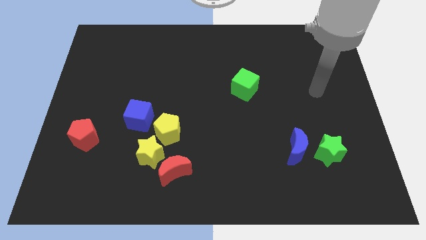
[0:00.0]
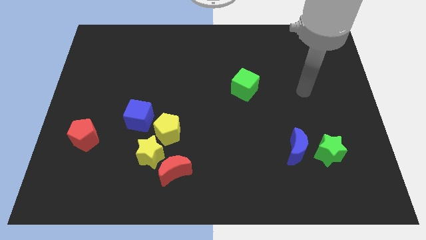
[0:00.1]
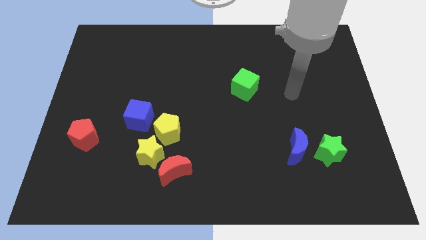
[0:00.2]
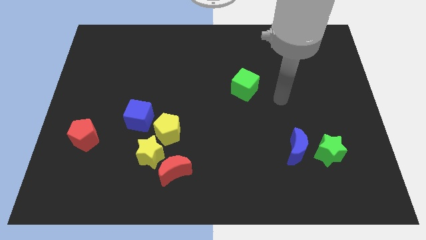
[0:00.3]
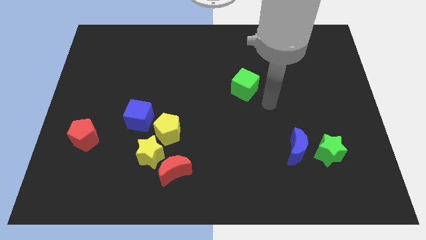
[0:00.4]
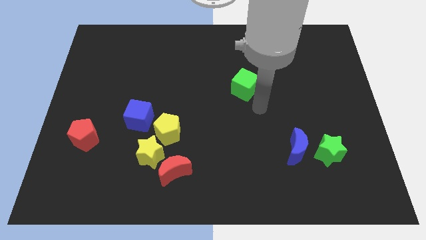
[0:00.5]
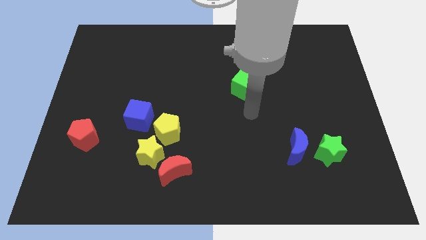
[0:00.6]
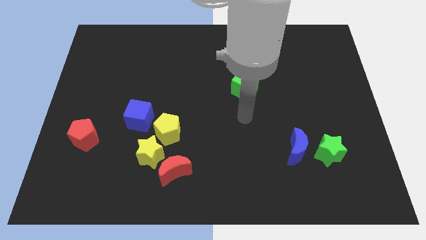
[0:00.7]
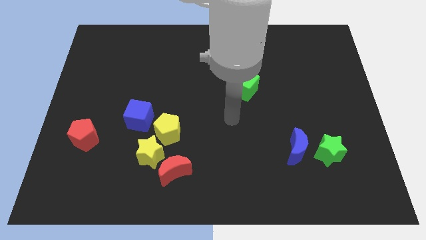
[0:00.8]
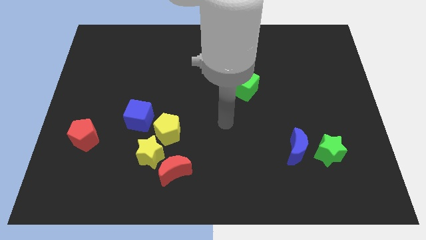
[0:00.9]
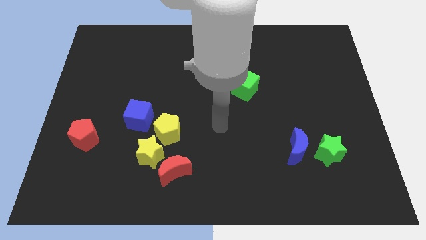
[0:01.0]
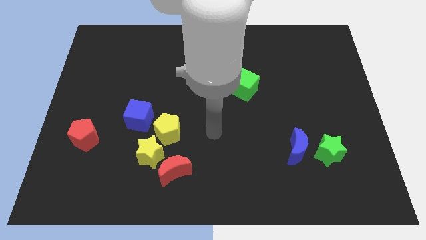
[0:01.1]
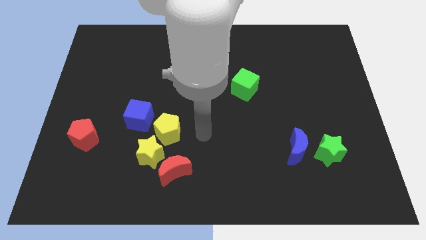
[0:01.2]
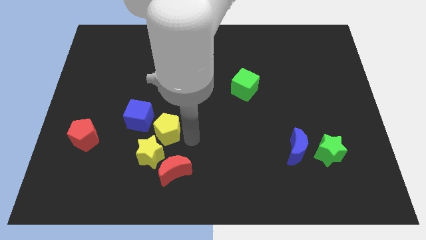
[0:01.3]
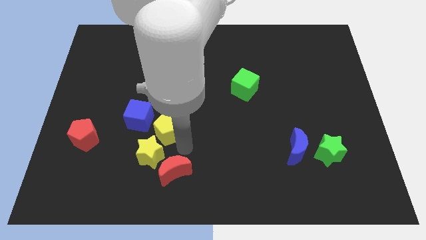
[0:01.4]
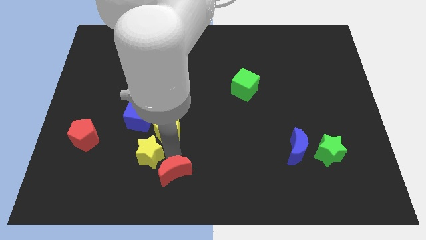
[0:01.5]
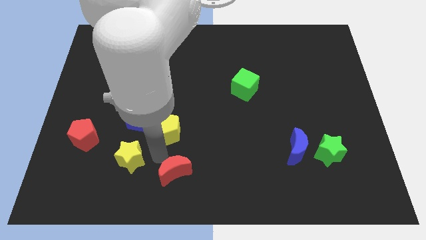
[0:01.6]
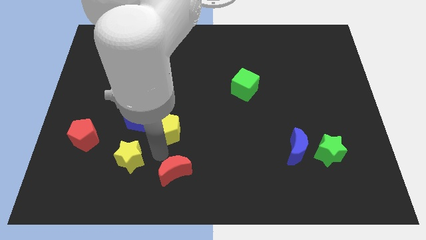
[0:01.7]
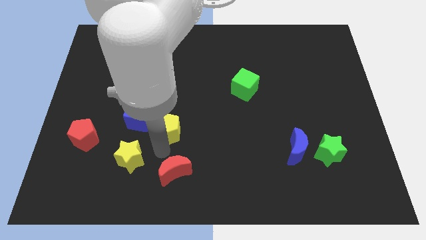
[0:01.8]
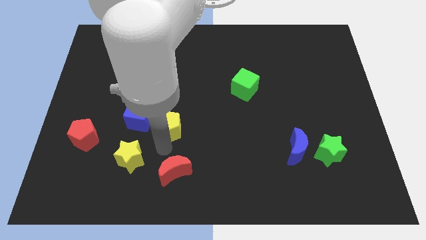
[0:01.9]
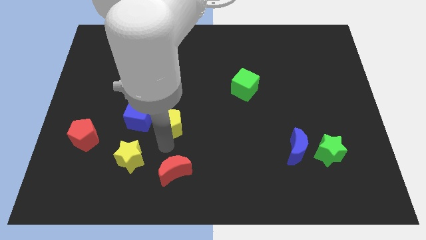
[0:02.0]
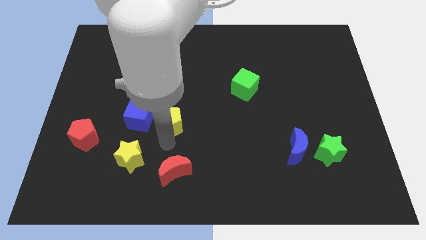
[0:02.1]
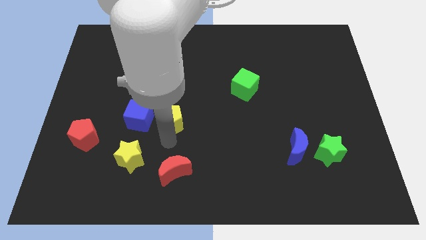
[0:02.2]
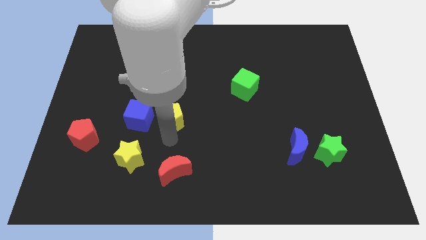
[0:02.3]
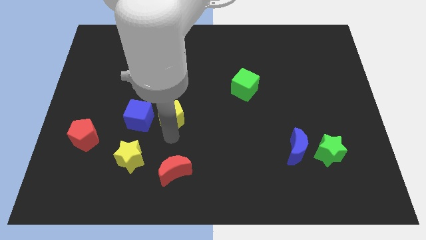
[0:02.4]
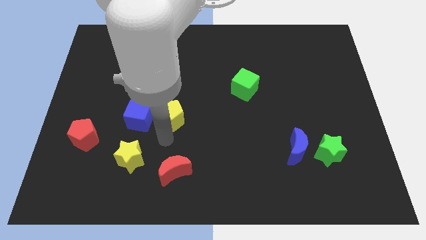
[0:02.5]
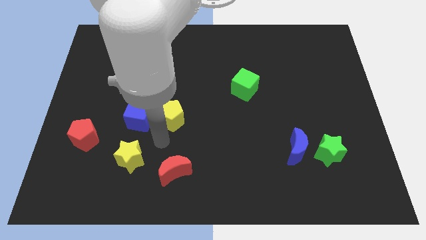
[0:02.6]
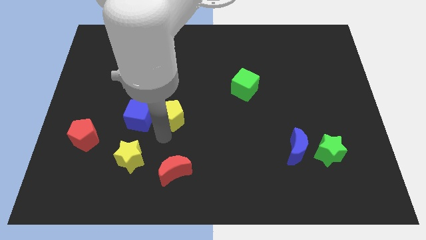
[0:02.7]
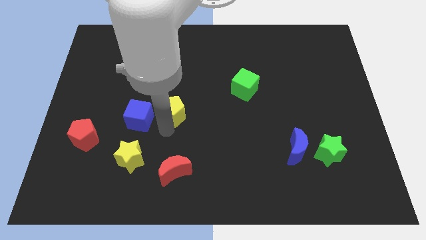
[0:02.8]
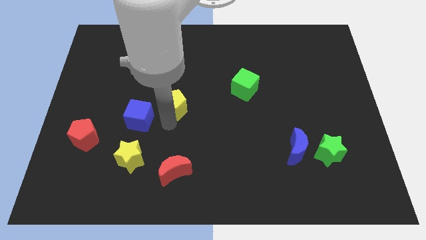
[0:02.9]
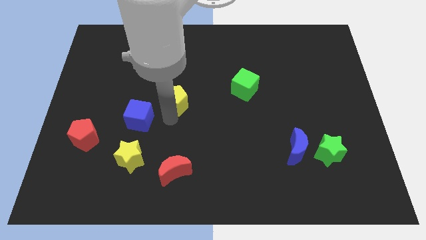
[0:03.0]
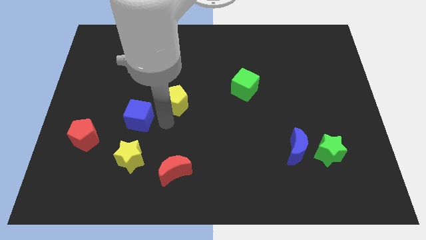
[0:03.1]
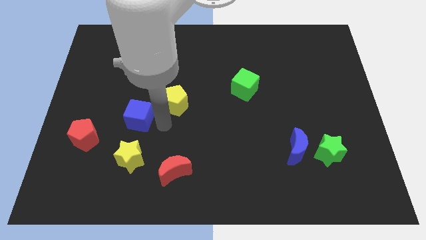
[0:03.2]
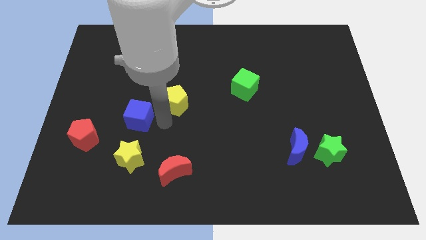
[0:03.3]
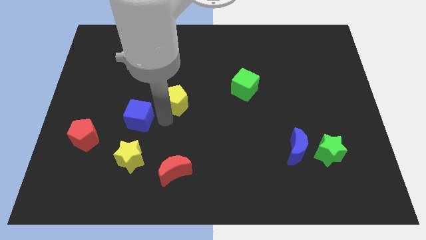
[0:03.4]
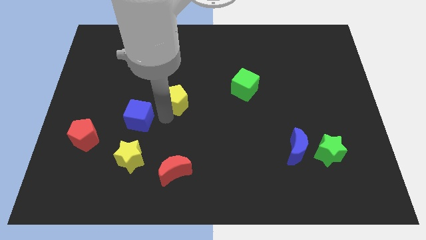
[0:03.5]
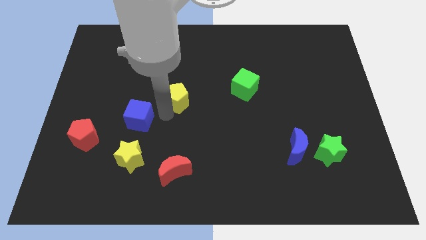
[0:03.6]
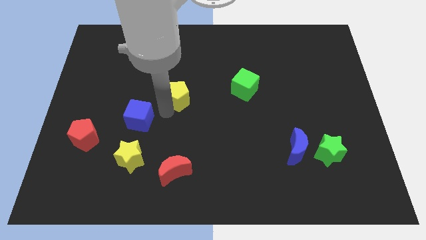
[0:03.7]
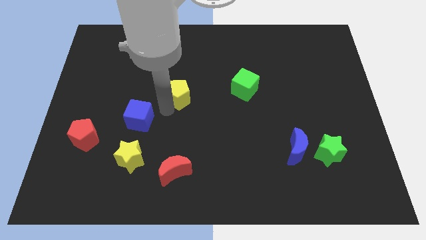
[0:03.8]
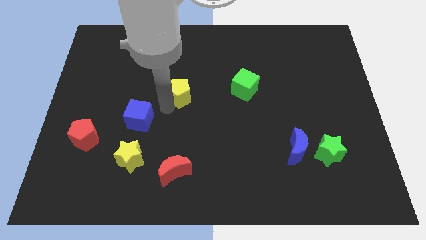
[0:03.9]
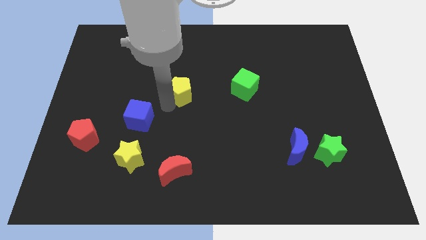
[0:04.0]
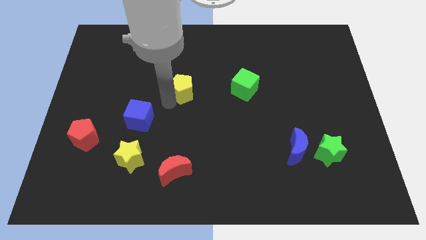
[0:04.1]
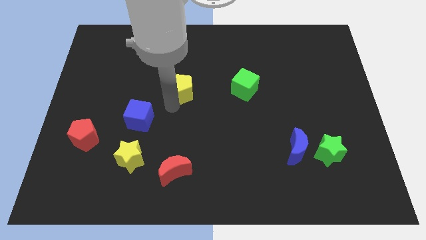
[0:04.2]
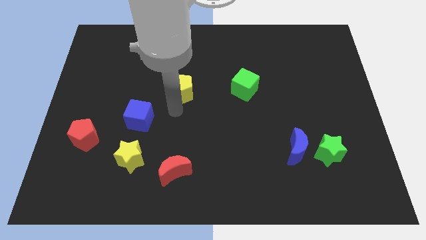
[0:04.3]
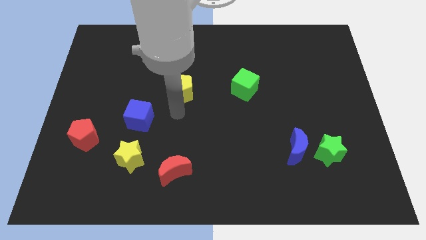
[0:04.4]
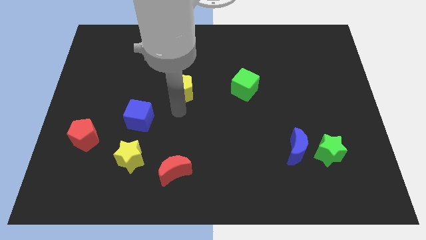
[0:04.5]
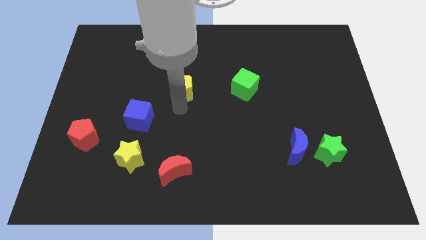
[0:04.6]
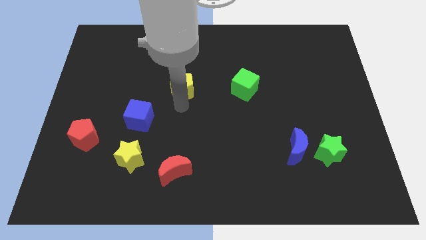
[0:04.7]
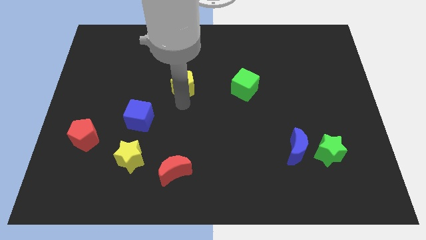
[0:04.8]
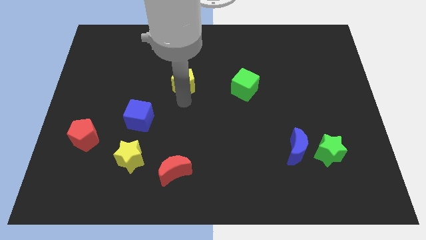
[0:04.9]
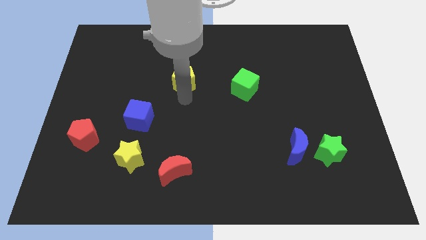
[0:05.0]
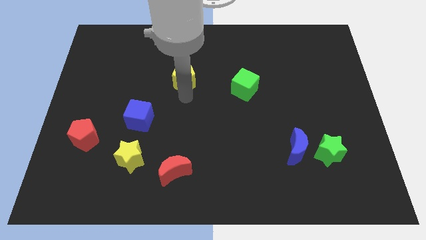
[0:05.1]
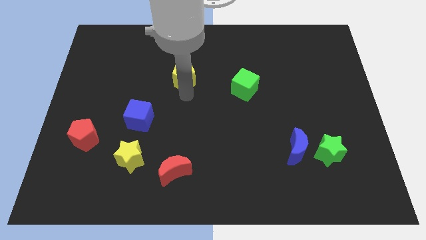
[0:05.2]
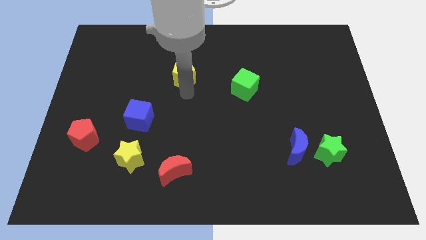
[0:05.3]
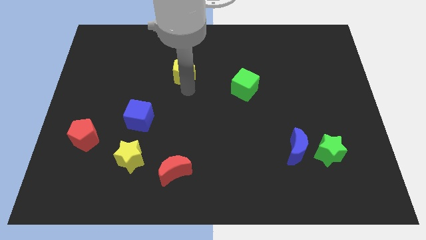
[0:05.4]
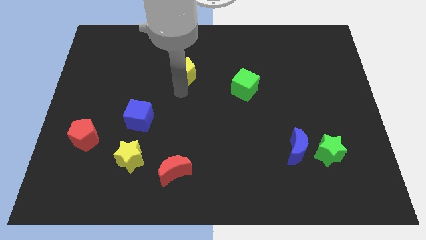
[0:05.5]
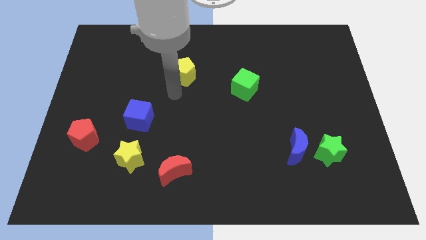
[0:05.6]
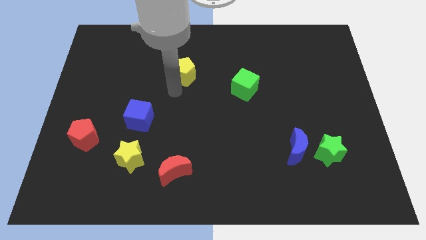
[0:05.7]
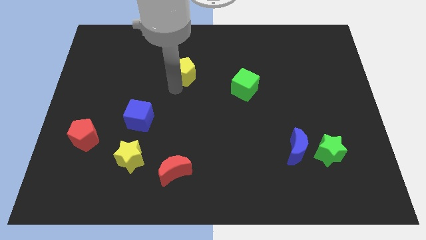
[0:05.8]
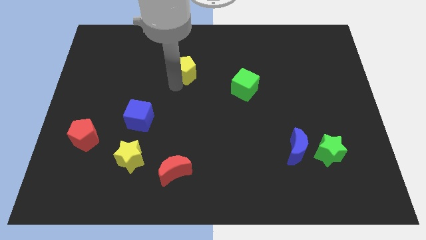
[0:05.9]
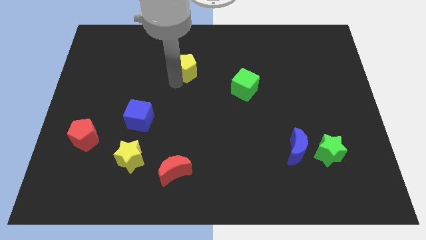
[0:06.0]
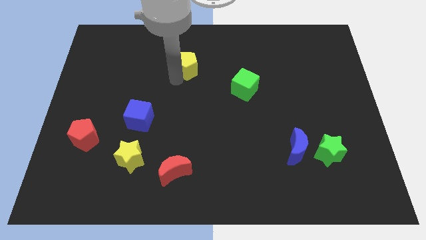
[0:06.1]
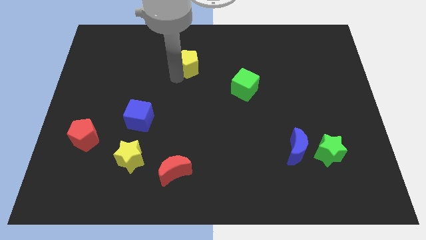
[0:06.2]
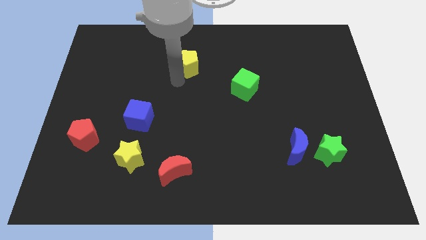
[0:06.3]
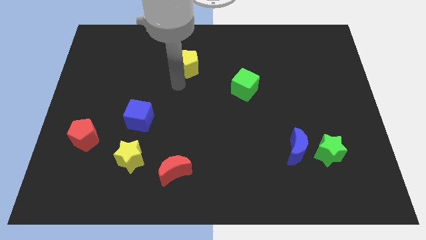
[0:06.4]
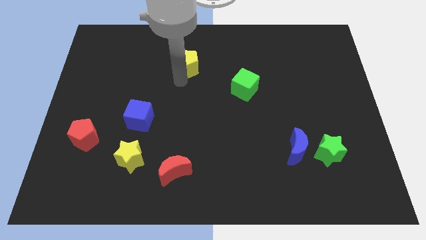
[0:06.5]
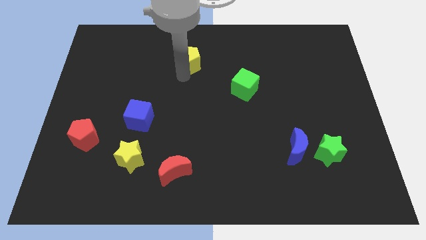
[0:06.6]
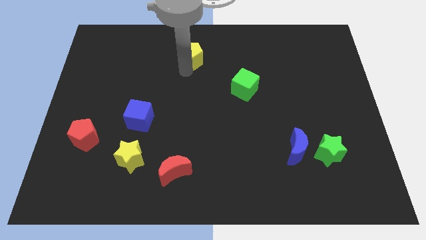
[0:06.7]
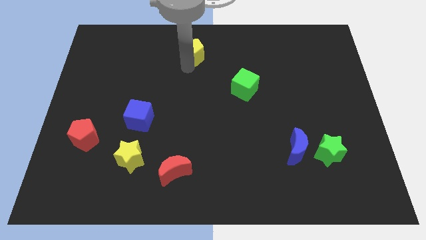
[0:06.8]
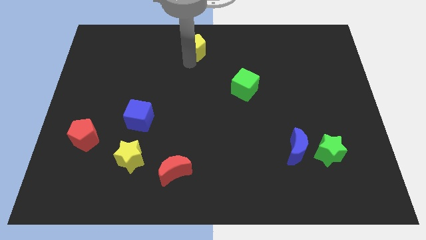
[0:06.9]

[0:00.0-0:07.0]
push the yellow pentagon to the top
